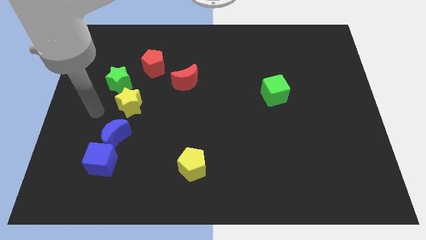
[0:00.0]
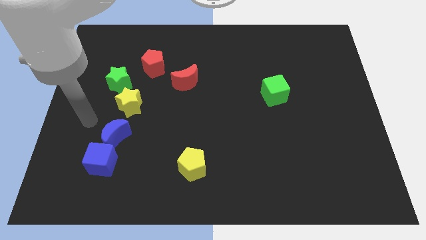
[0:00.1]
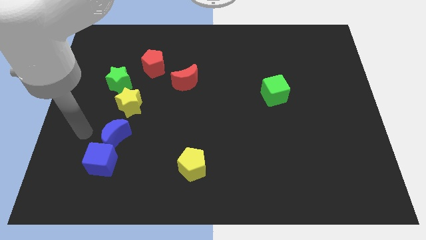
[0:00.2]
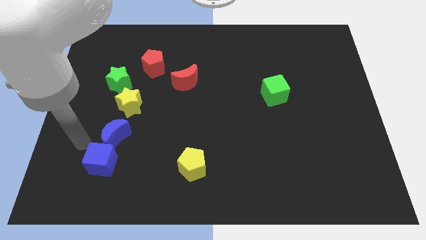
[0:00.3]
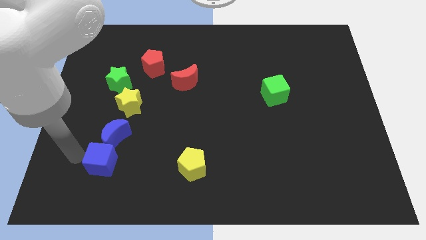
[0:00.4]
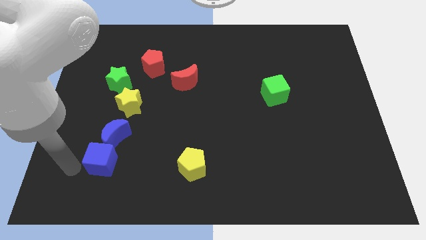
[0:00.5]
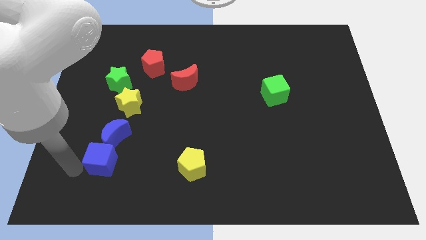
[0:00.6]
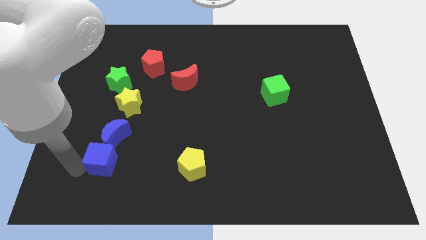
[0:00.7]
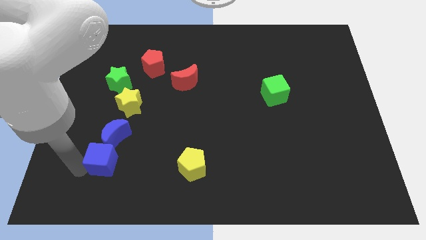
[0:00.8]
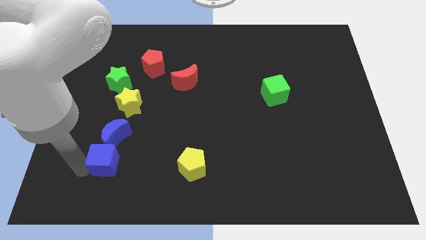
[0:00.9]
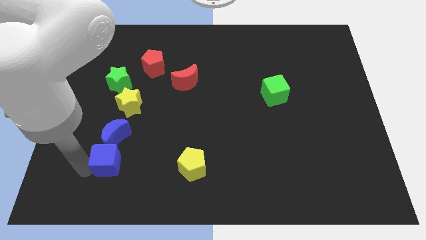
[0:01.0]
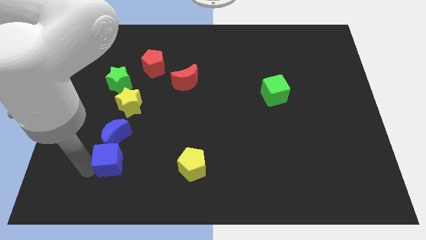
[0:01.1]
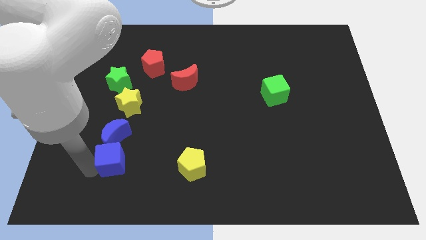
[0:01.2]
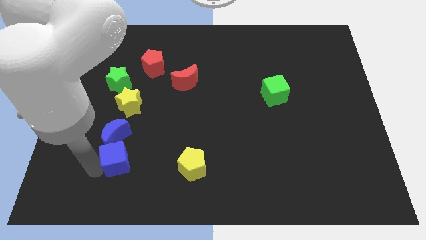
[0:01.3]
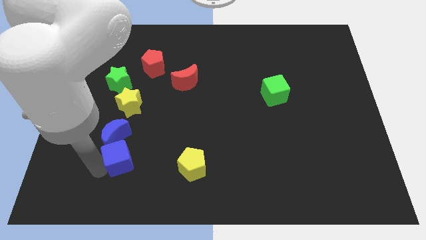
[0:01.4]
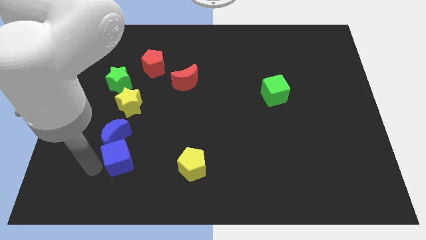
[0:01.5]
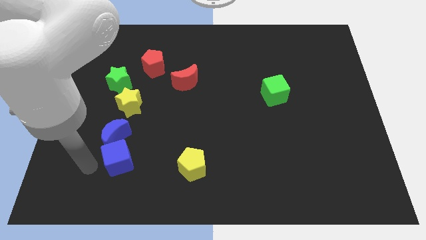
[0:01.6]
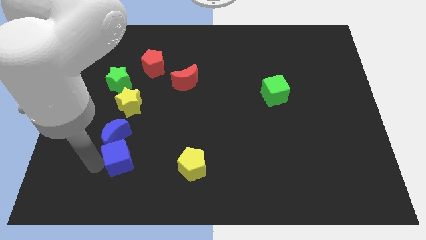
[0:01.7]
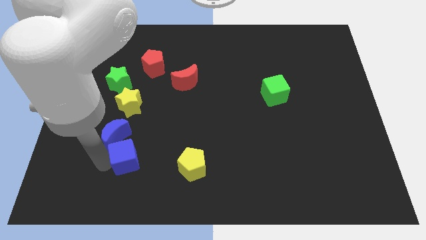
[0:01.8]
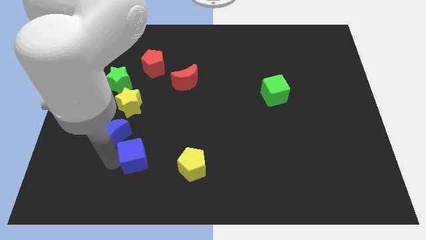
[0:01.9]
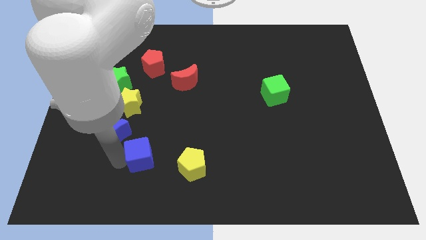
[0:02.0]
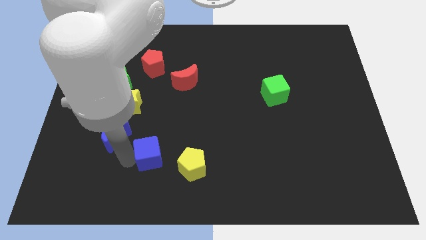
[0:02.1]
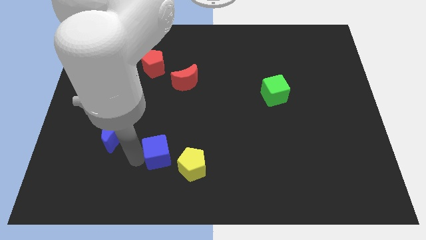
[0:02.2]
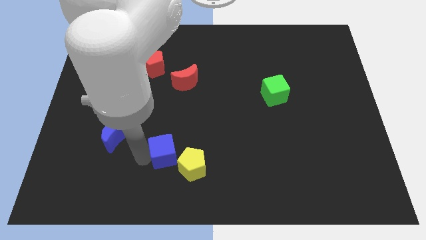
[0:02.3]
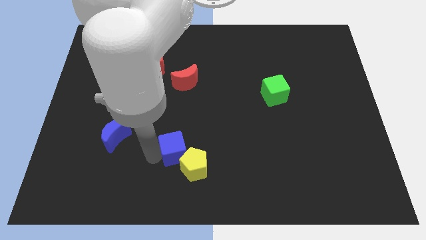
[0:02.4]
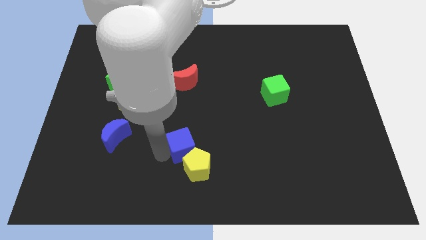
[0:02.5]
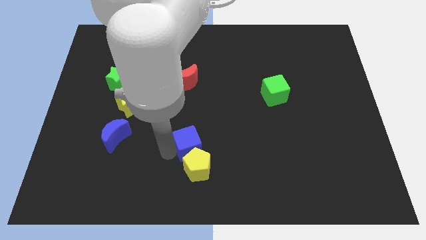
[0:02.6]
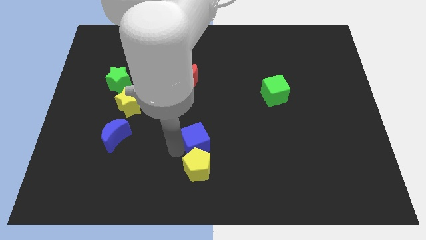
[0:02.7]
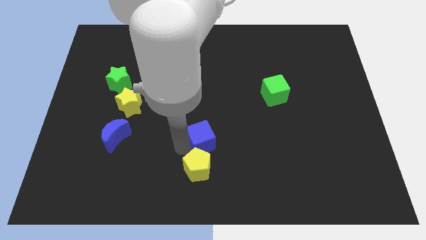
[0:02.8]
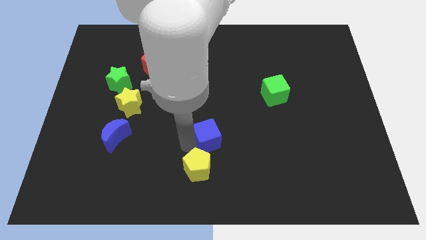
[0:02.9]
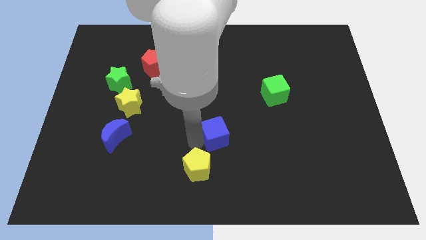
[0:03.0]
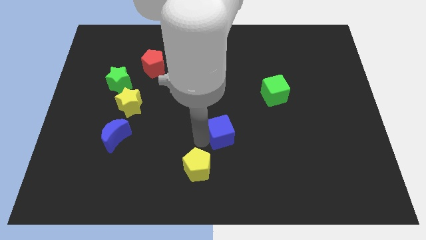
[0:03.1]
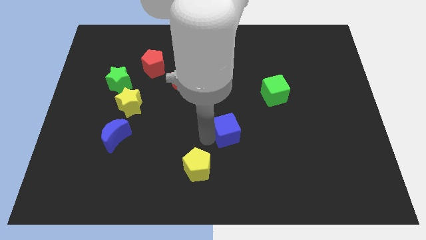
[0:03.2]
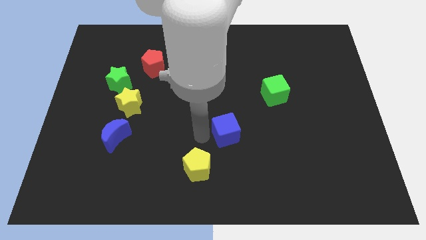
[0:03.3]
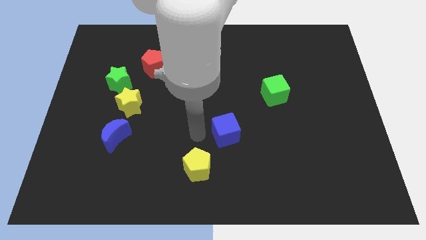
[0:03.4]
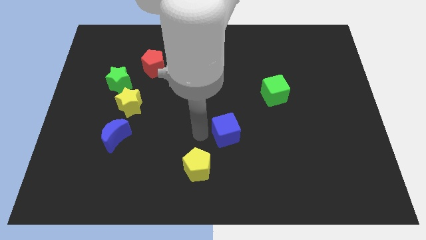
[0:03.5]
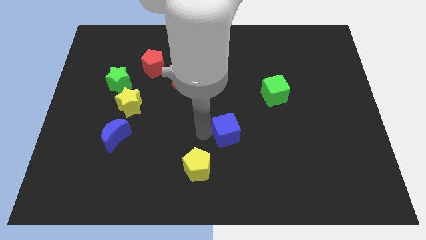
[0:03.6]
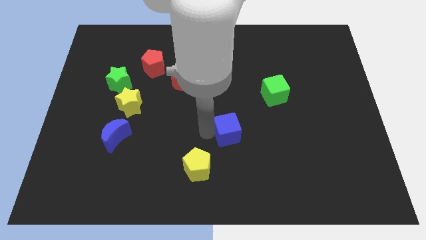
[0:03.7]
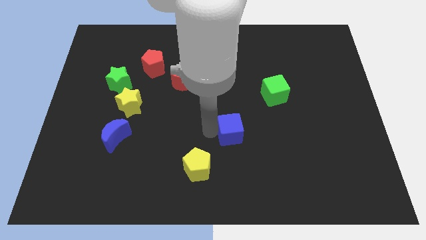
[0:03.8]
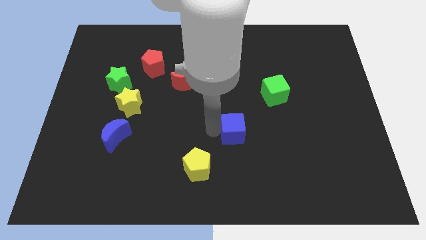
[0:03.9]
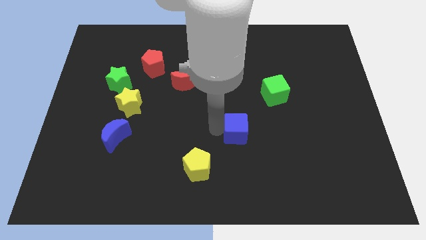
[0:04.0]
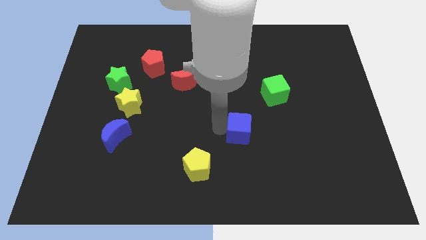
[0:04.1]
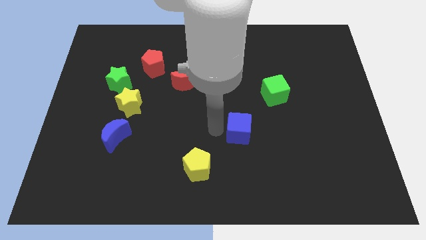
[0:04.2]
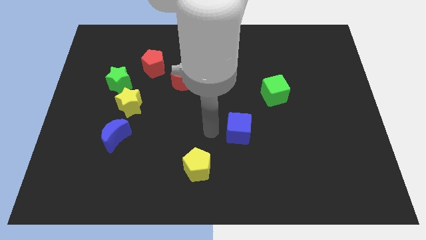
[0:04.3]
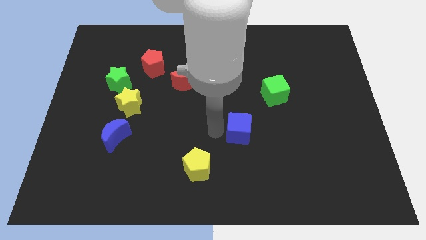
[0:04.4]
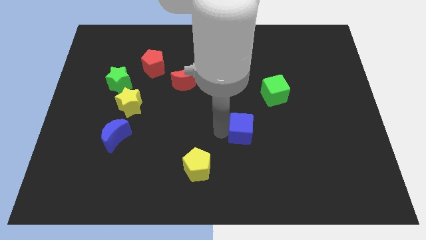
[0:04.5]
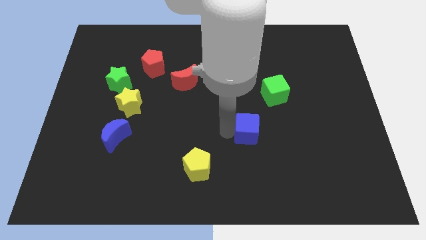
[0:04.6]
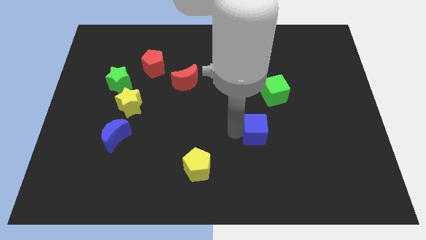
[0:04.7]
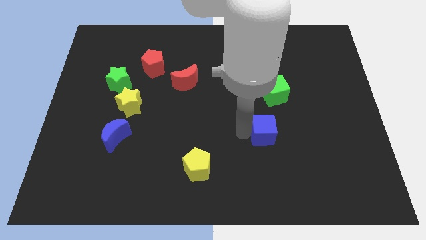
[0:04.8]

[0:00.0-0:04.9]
put the blue cube to the bottom of the green cube

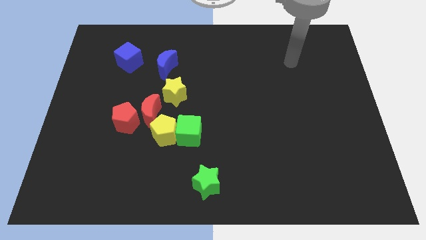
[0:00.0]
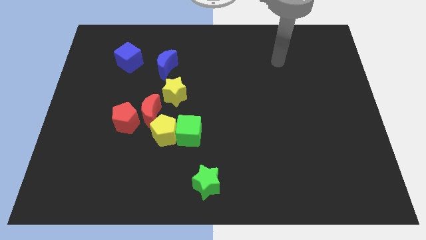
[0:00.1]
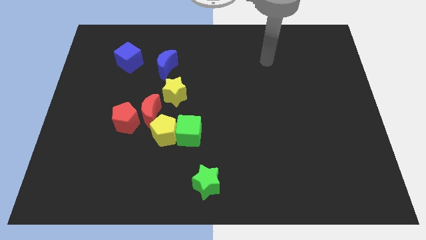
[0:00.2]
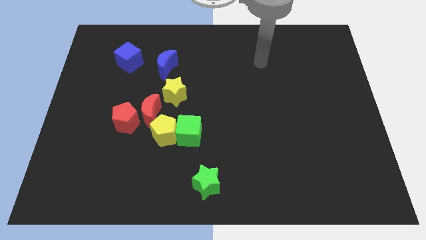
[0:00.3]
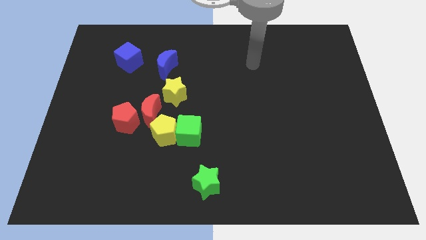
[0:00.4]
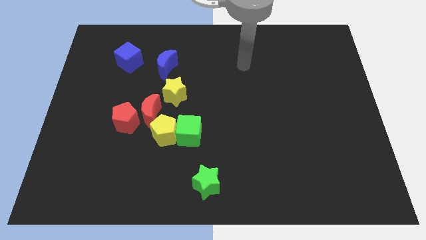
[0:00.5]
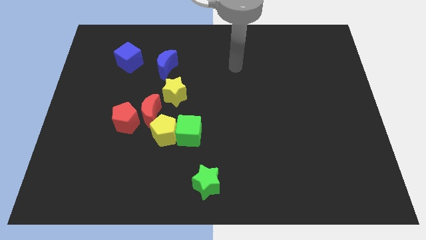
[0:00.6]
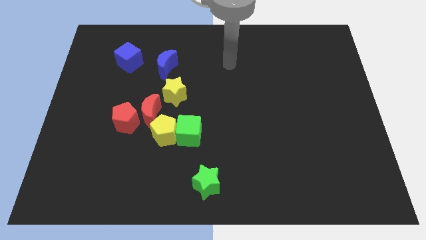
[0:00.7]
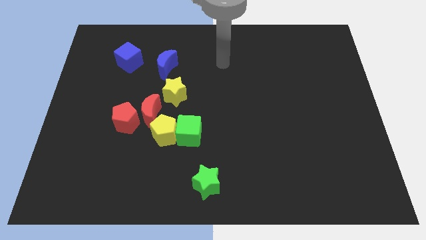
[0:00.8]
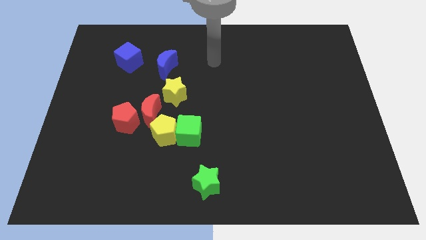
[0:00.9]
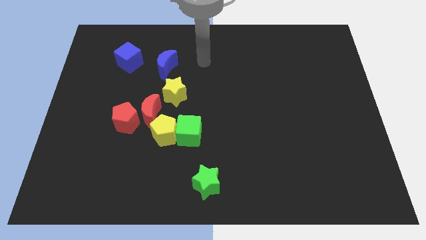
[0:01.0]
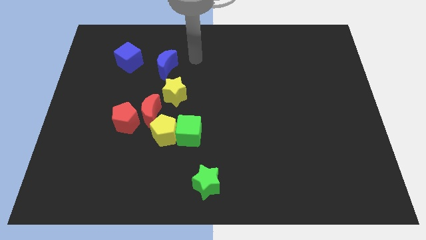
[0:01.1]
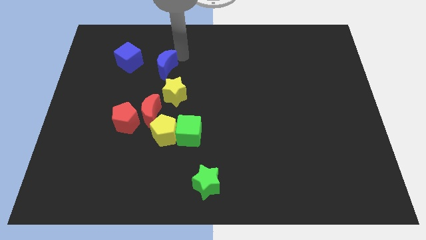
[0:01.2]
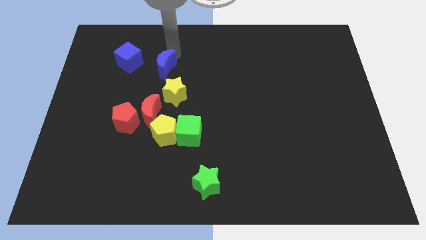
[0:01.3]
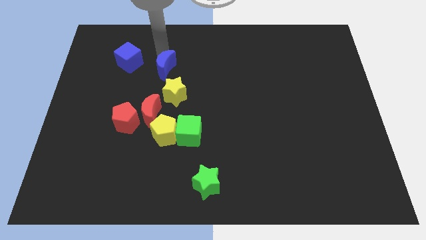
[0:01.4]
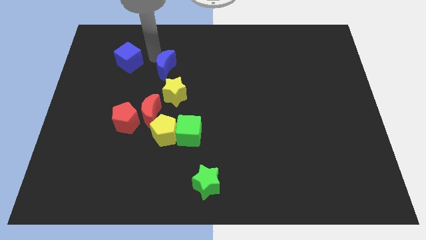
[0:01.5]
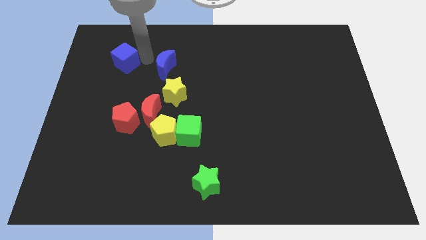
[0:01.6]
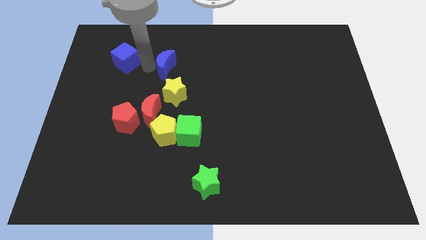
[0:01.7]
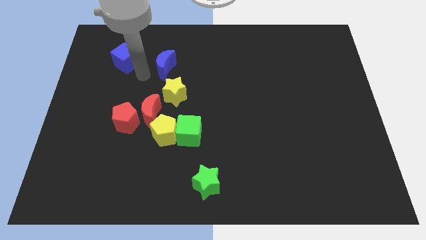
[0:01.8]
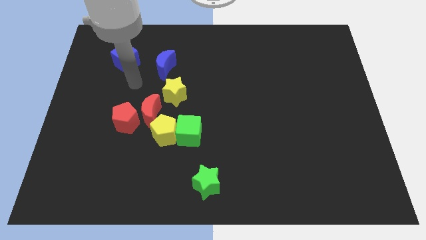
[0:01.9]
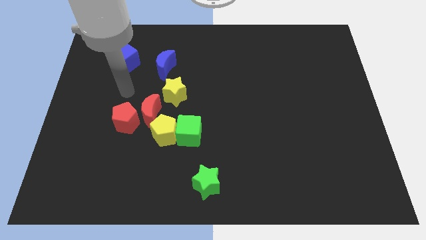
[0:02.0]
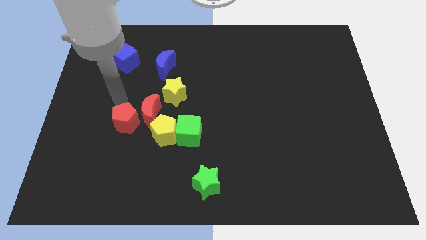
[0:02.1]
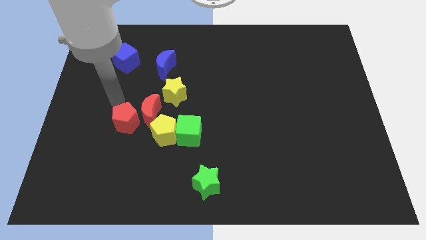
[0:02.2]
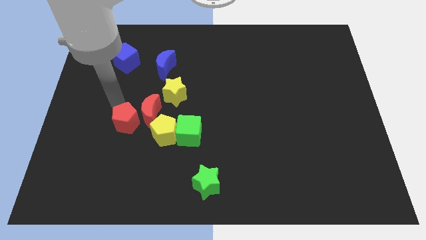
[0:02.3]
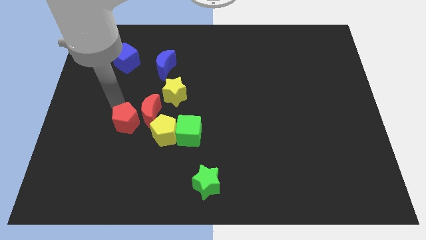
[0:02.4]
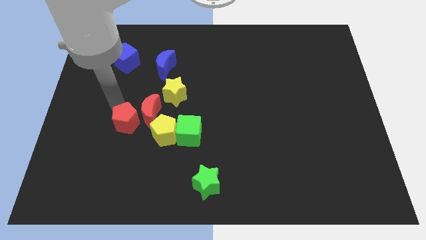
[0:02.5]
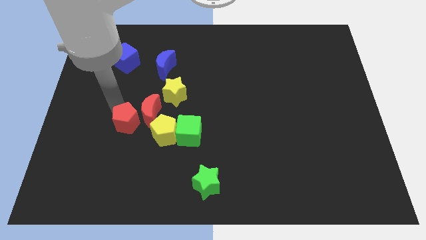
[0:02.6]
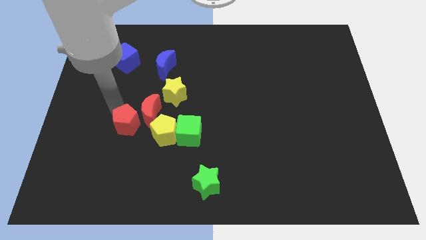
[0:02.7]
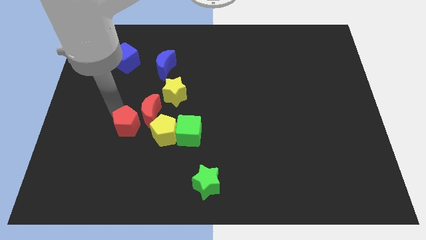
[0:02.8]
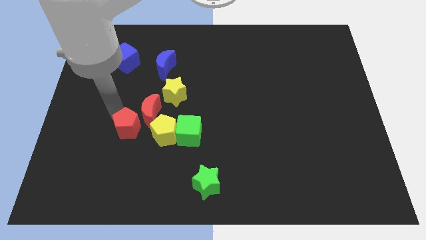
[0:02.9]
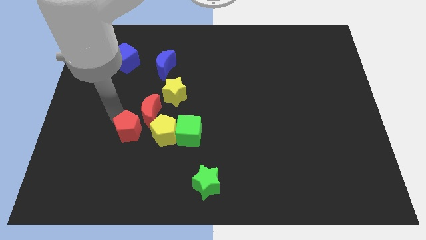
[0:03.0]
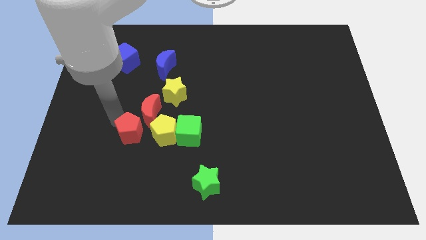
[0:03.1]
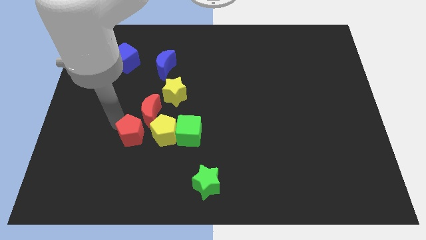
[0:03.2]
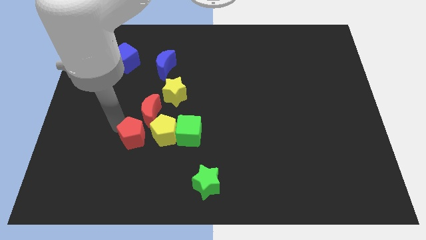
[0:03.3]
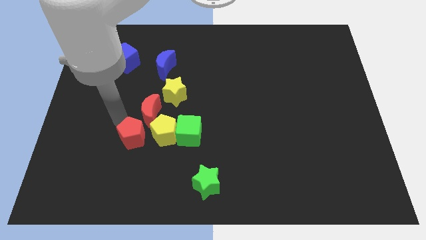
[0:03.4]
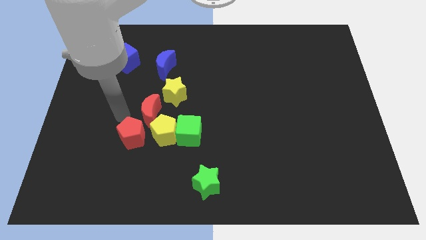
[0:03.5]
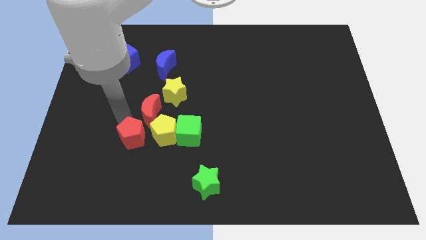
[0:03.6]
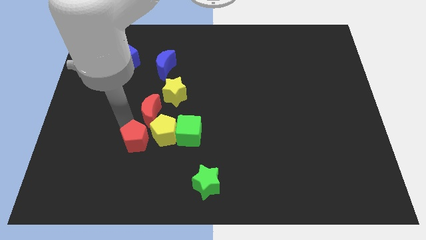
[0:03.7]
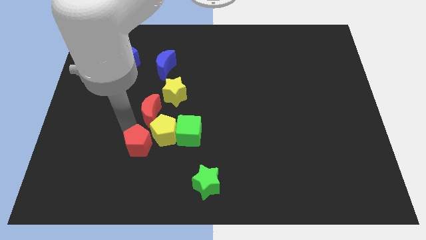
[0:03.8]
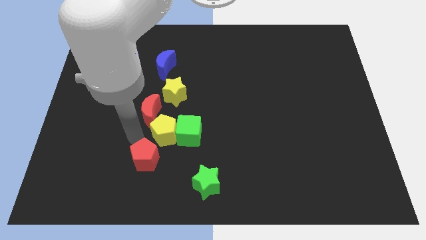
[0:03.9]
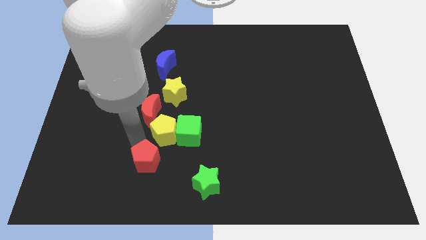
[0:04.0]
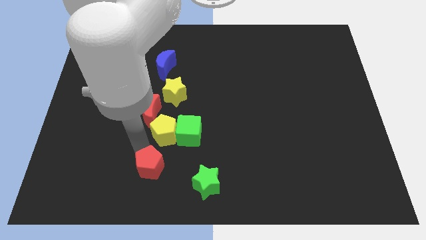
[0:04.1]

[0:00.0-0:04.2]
push the red pentagon to the left side of the green star
